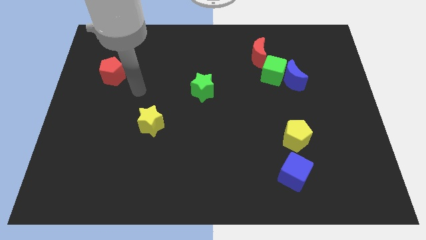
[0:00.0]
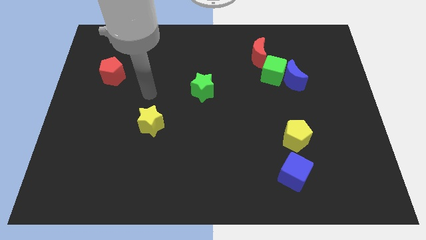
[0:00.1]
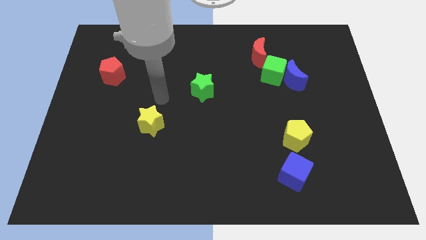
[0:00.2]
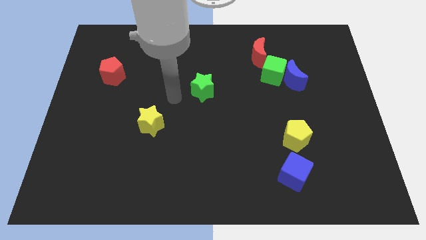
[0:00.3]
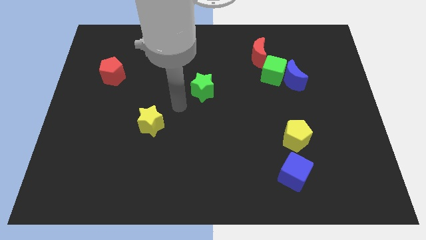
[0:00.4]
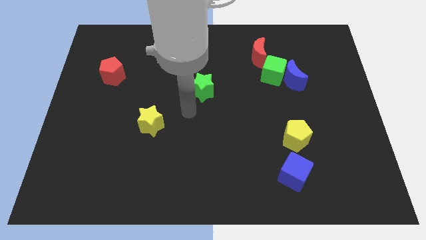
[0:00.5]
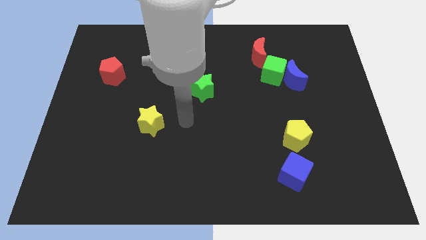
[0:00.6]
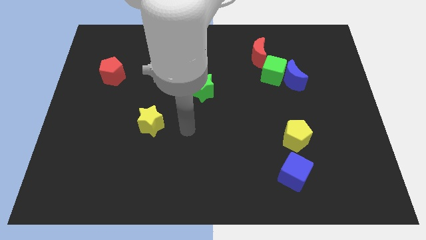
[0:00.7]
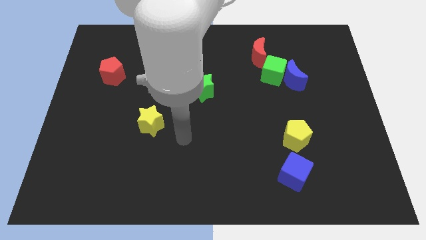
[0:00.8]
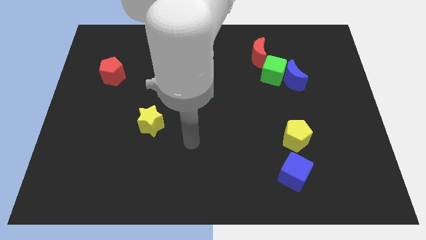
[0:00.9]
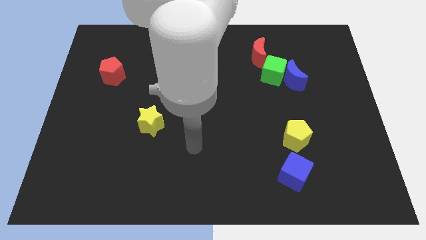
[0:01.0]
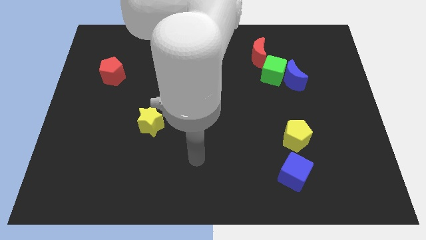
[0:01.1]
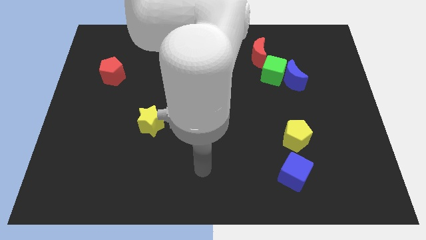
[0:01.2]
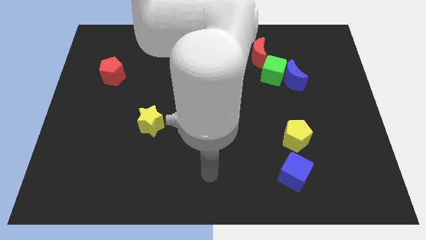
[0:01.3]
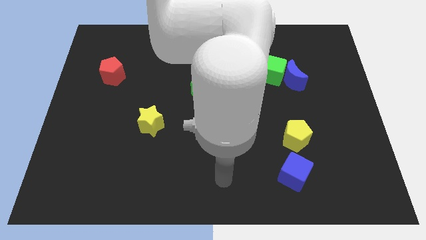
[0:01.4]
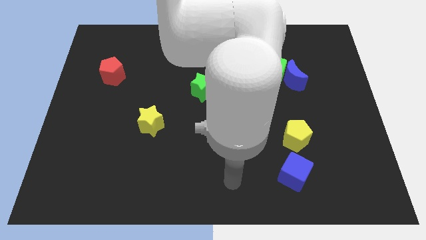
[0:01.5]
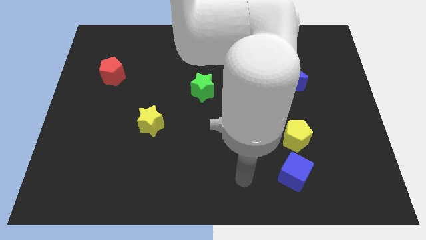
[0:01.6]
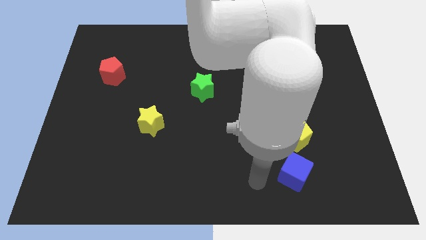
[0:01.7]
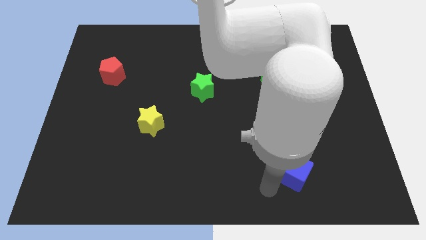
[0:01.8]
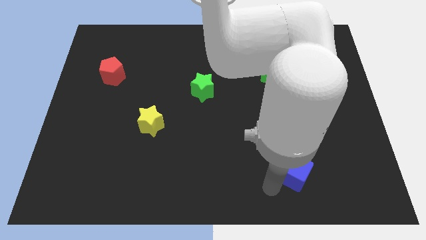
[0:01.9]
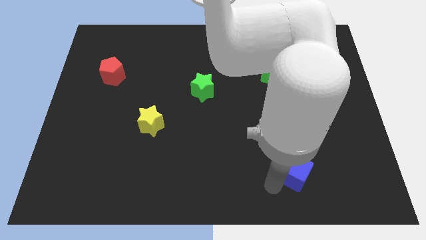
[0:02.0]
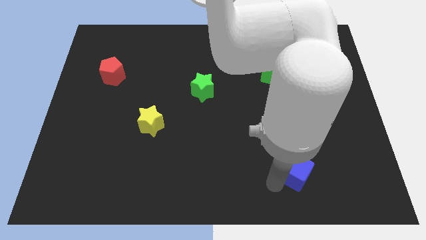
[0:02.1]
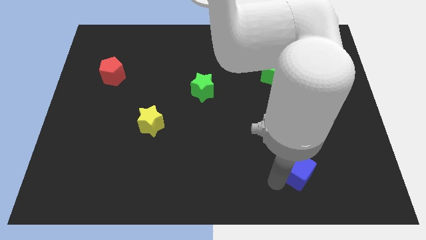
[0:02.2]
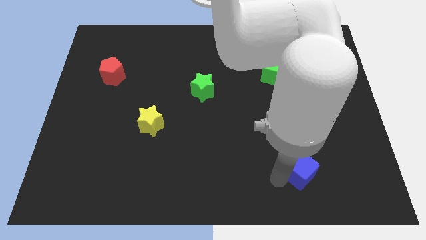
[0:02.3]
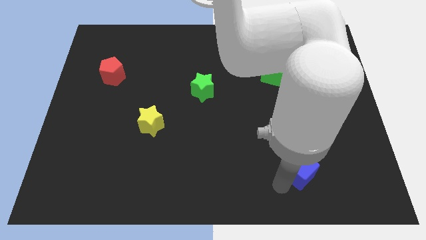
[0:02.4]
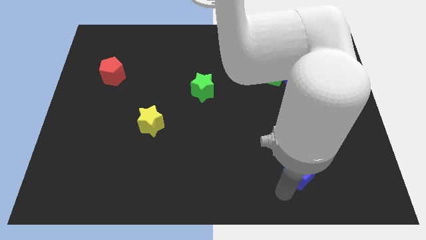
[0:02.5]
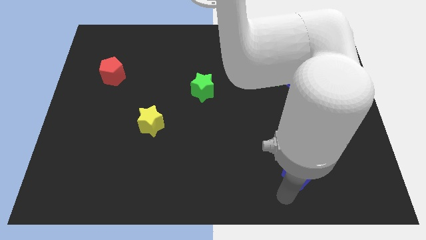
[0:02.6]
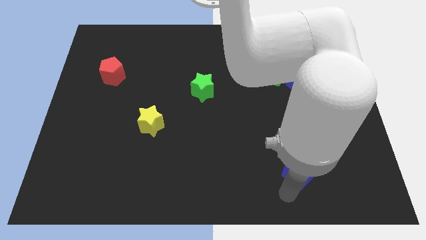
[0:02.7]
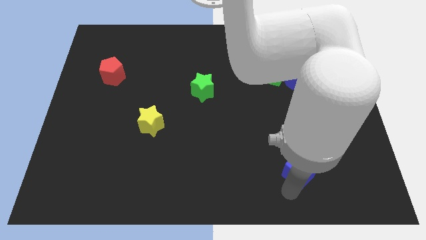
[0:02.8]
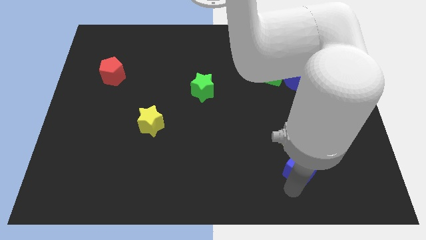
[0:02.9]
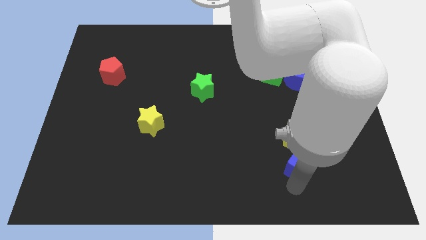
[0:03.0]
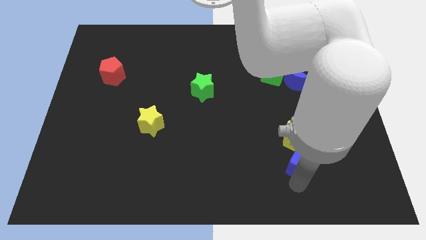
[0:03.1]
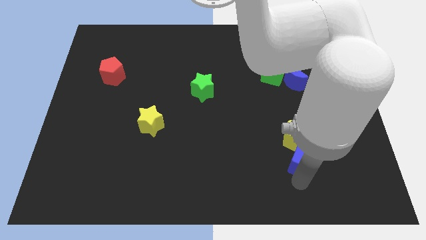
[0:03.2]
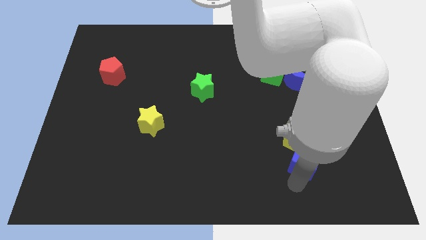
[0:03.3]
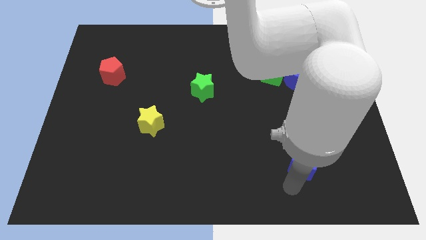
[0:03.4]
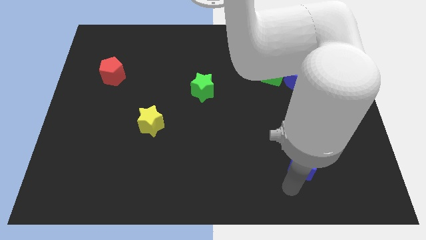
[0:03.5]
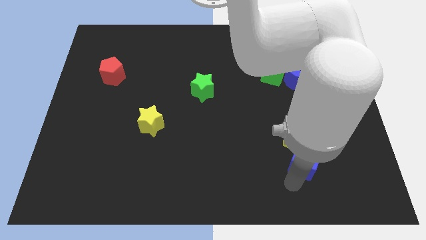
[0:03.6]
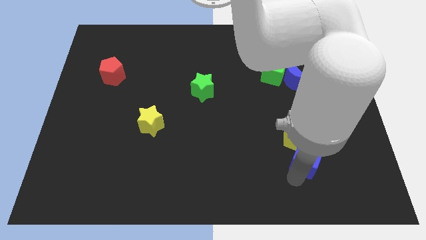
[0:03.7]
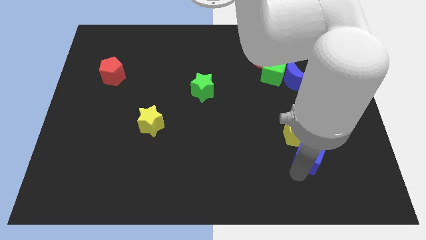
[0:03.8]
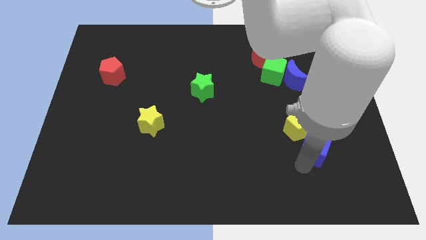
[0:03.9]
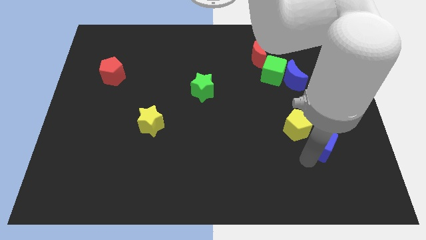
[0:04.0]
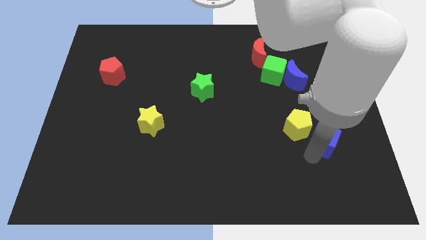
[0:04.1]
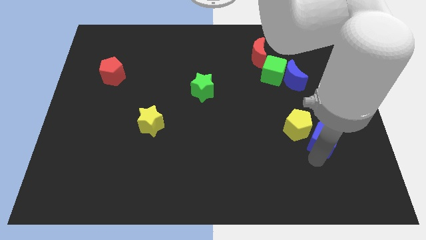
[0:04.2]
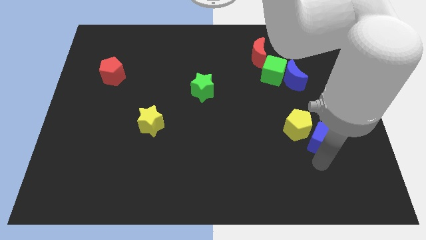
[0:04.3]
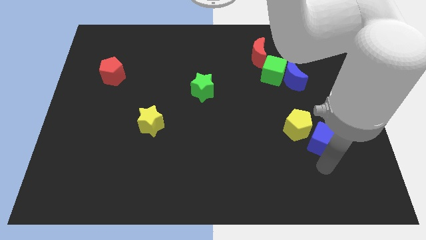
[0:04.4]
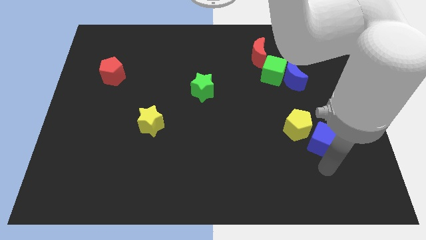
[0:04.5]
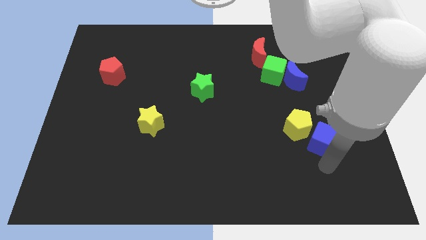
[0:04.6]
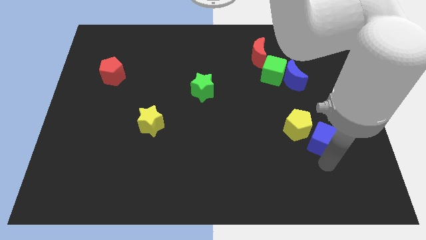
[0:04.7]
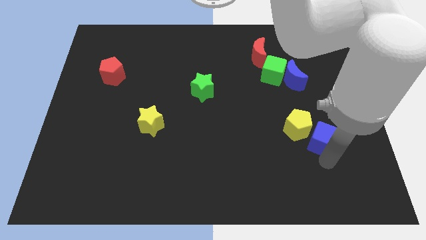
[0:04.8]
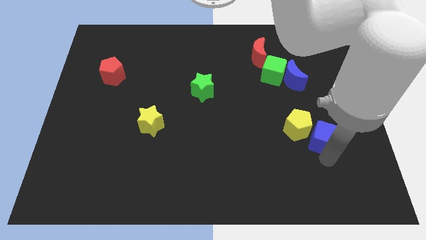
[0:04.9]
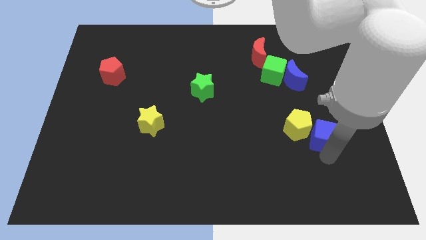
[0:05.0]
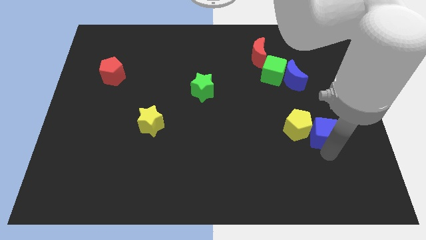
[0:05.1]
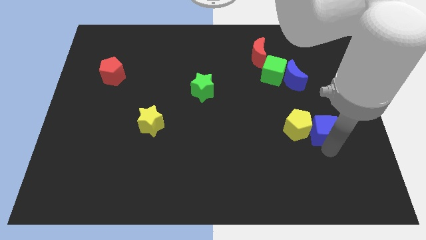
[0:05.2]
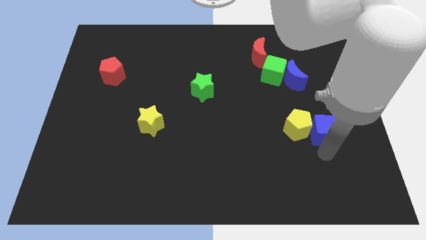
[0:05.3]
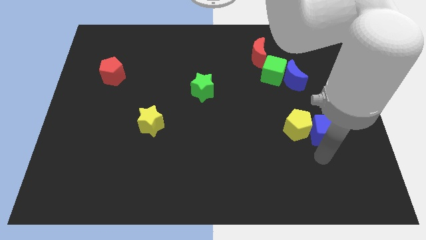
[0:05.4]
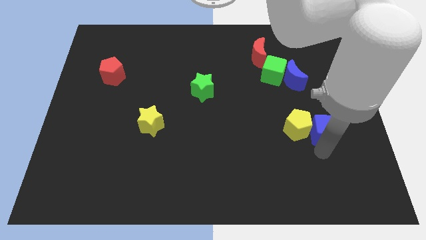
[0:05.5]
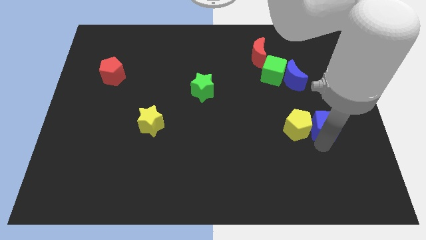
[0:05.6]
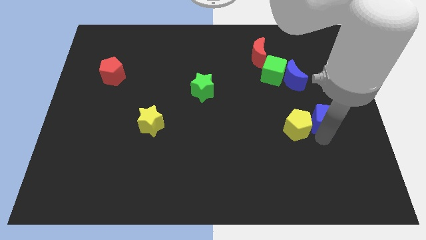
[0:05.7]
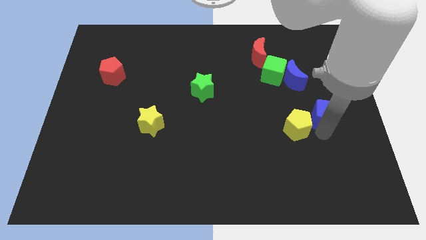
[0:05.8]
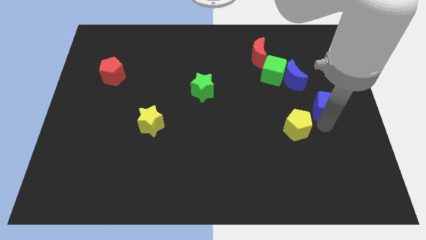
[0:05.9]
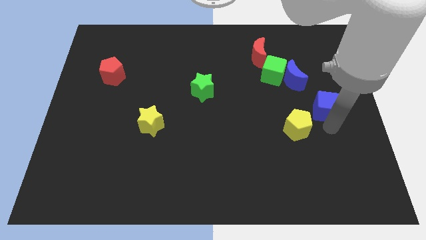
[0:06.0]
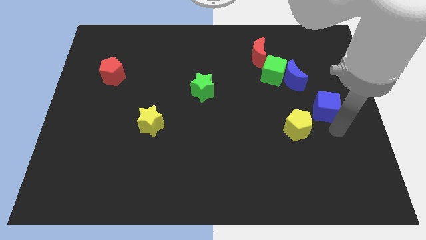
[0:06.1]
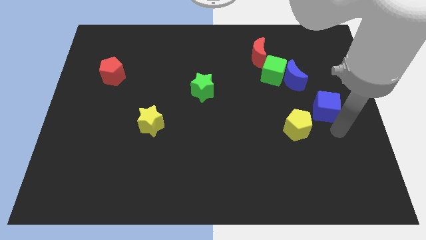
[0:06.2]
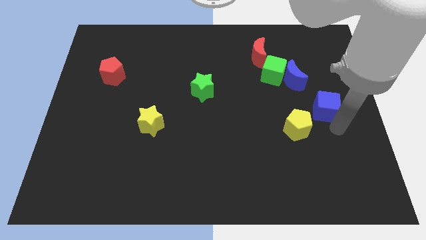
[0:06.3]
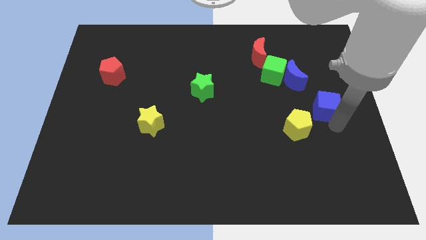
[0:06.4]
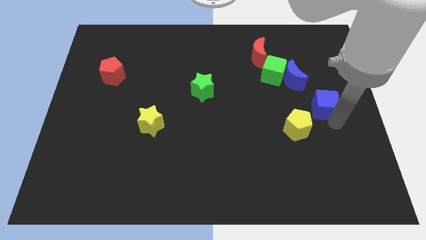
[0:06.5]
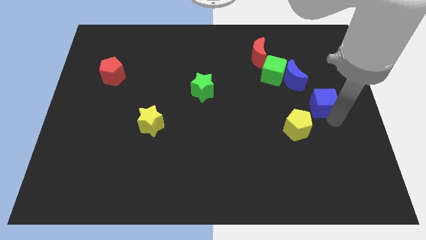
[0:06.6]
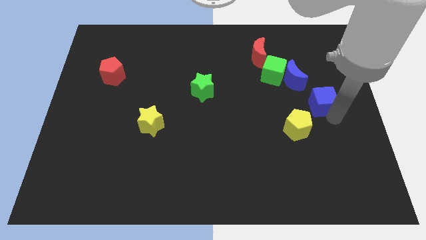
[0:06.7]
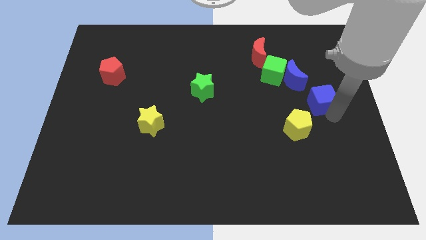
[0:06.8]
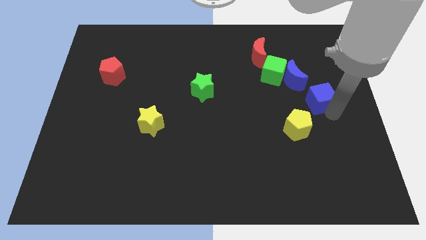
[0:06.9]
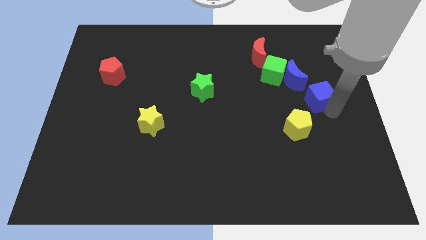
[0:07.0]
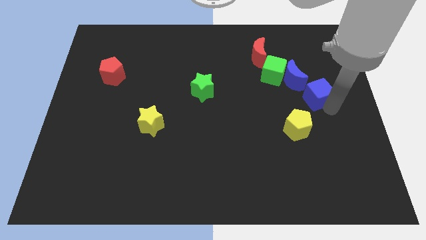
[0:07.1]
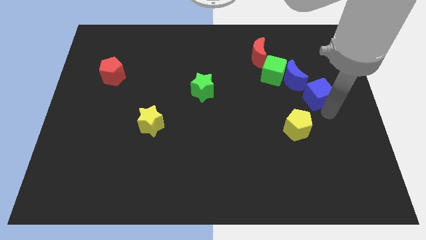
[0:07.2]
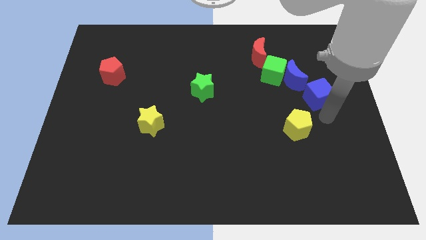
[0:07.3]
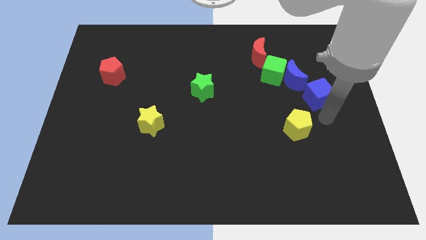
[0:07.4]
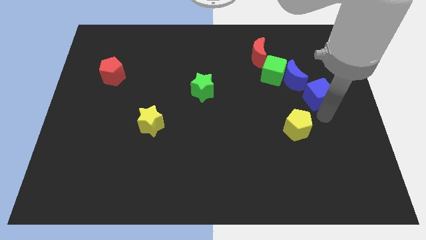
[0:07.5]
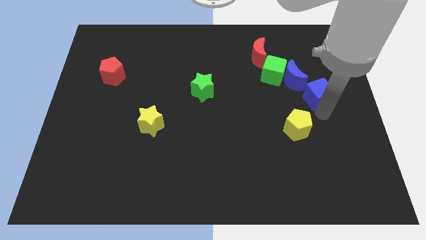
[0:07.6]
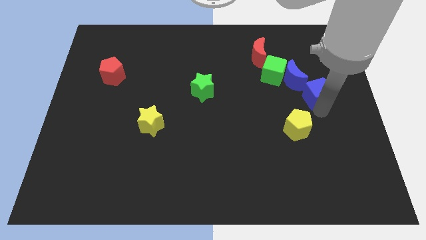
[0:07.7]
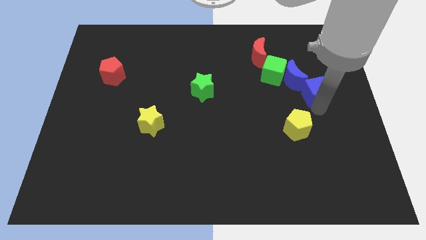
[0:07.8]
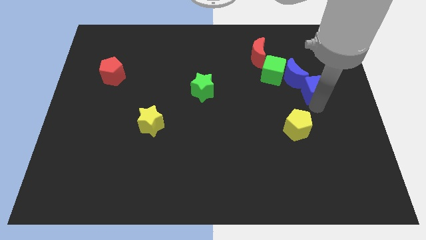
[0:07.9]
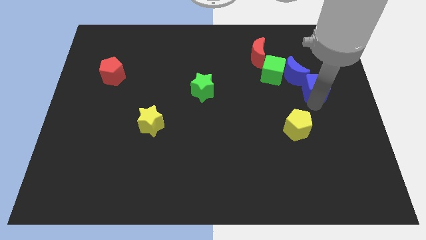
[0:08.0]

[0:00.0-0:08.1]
slide the blue cube upwards

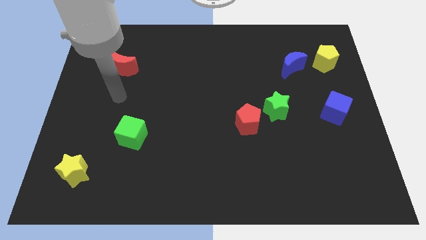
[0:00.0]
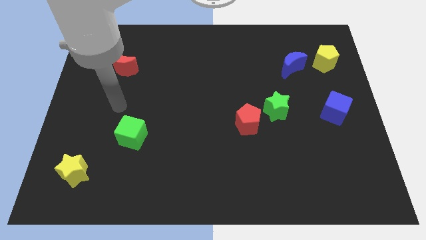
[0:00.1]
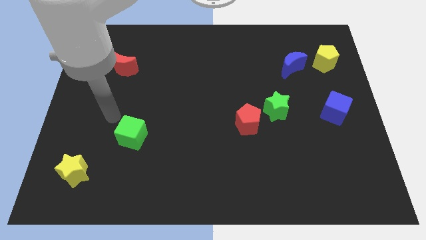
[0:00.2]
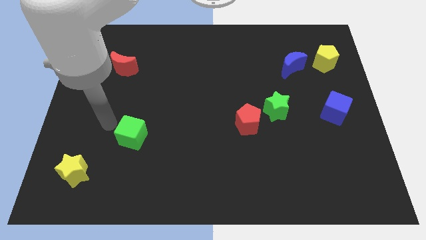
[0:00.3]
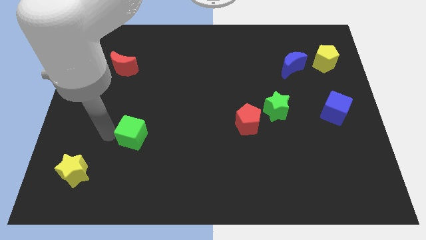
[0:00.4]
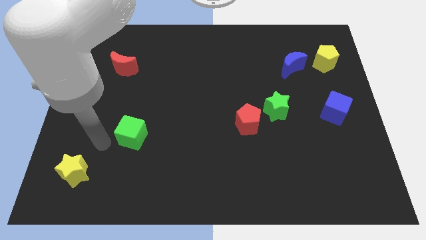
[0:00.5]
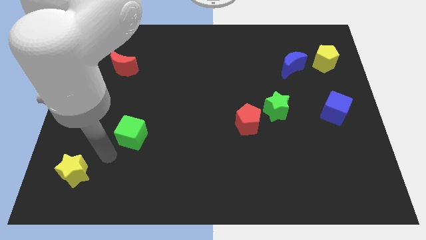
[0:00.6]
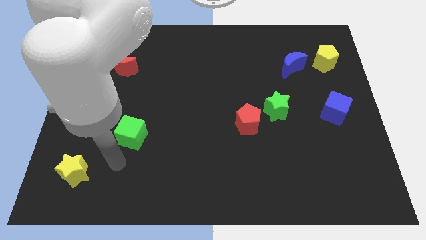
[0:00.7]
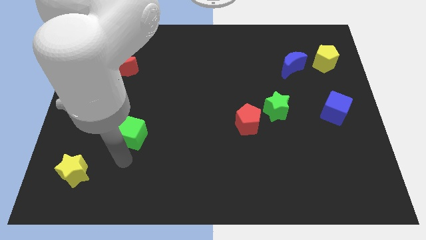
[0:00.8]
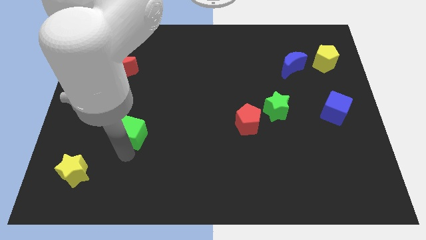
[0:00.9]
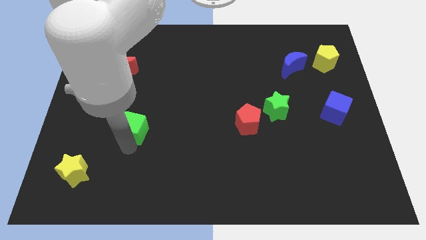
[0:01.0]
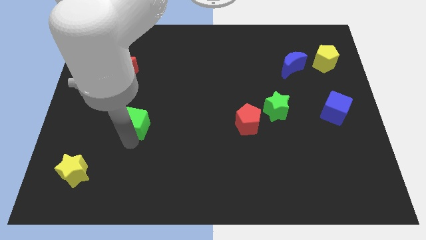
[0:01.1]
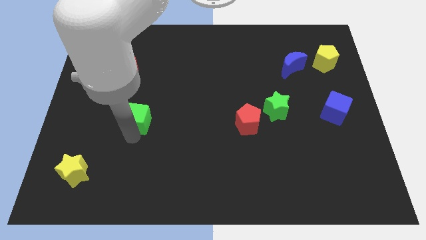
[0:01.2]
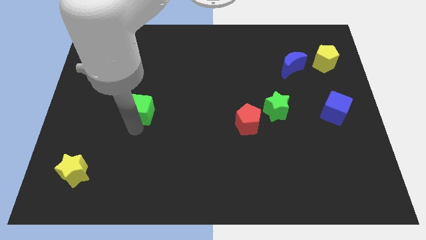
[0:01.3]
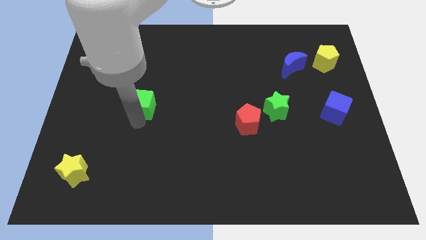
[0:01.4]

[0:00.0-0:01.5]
move the green cube upwards a little bit
